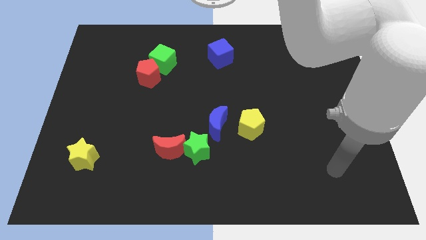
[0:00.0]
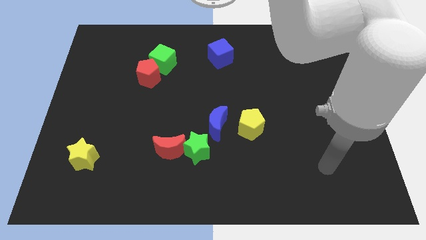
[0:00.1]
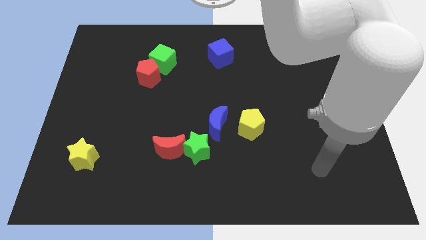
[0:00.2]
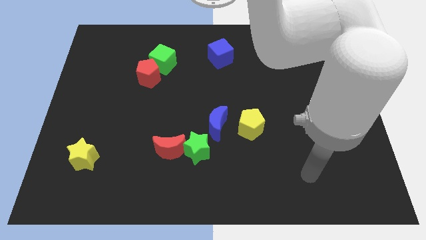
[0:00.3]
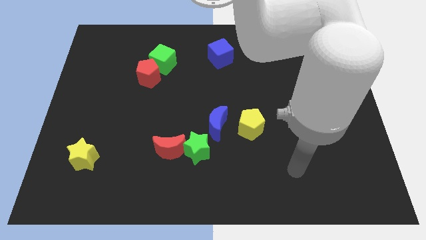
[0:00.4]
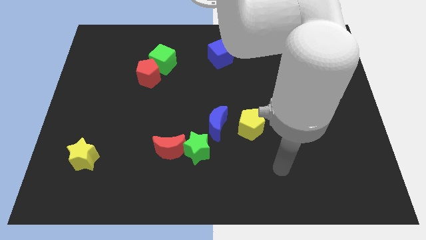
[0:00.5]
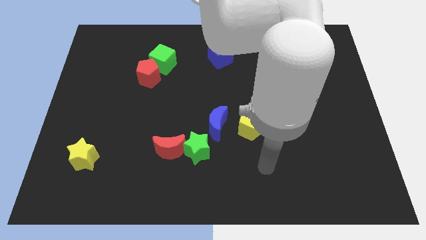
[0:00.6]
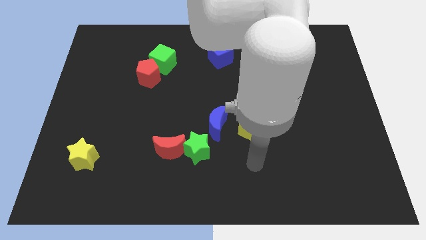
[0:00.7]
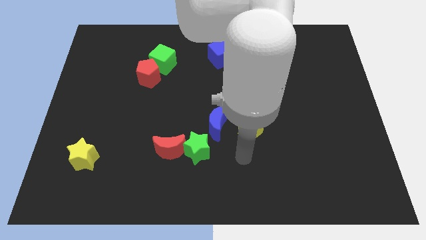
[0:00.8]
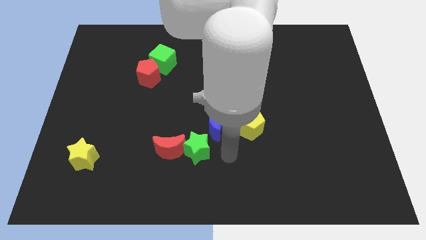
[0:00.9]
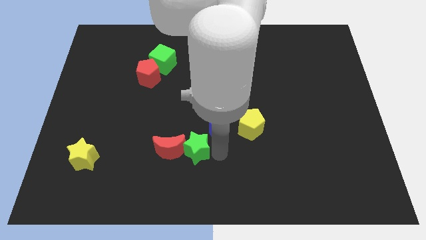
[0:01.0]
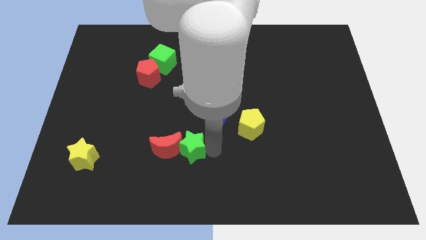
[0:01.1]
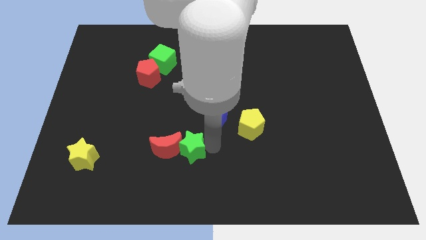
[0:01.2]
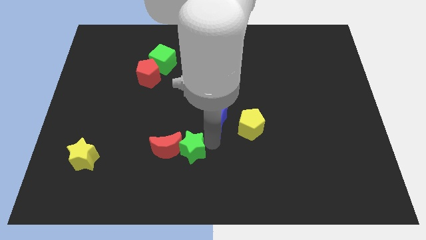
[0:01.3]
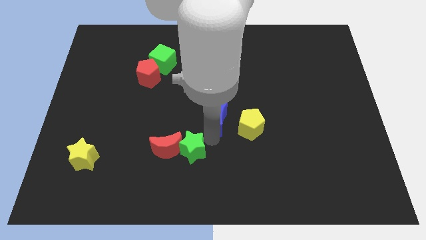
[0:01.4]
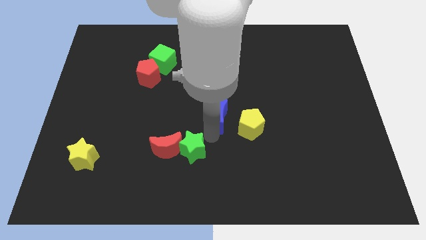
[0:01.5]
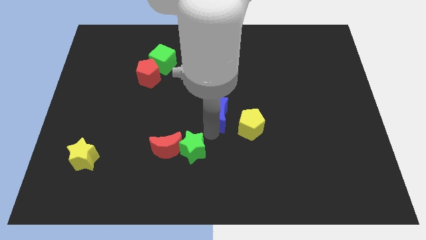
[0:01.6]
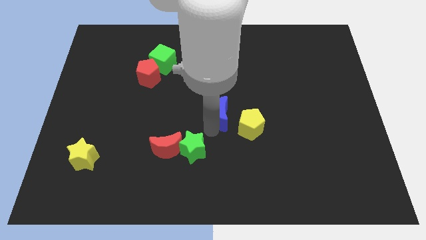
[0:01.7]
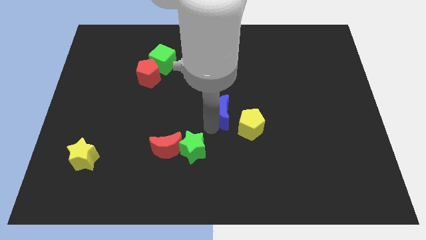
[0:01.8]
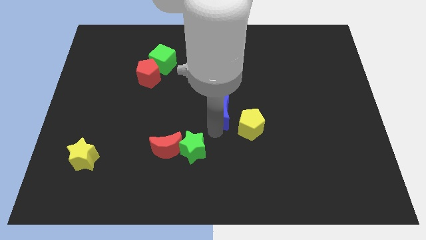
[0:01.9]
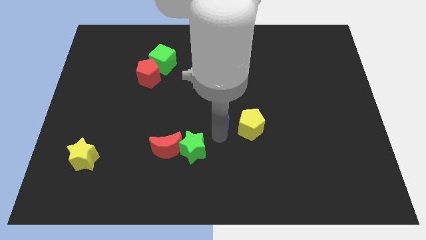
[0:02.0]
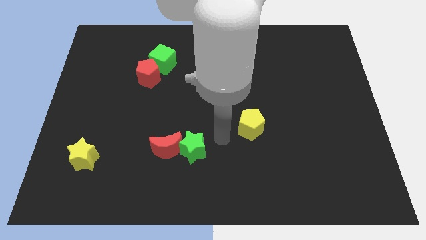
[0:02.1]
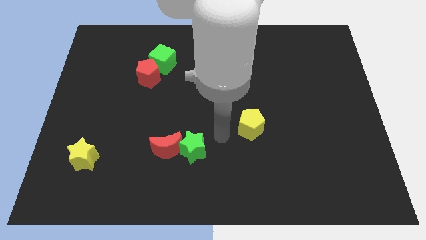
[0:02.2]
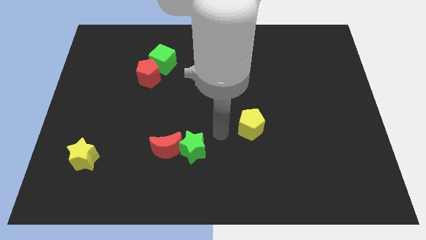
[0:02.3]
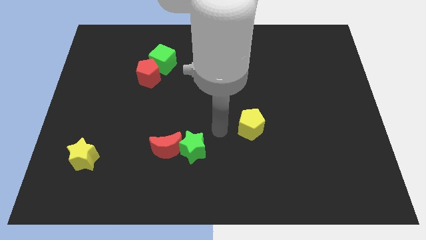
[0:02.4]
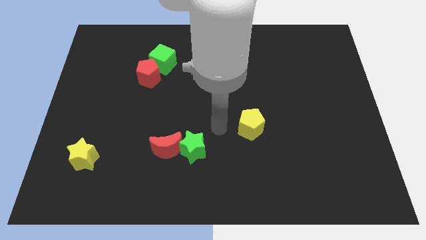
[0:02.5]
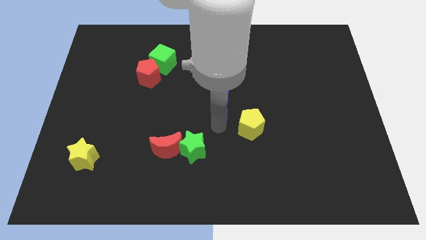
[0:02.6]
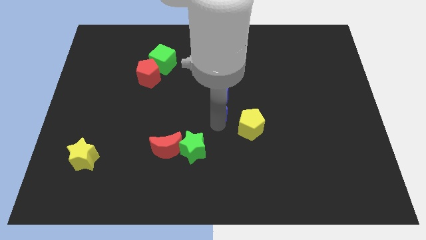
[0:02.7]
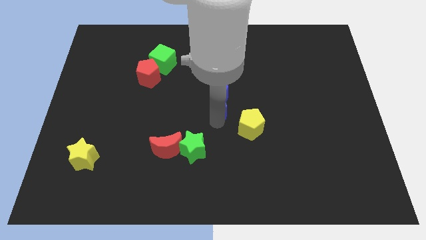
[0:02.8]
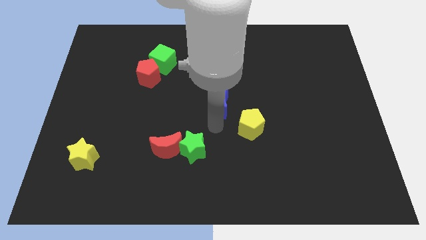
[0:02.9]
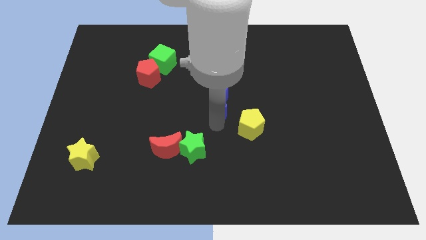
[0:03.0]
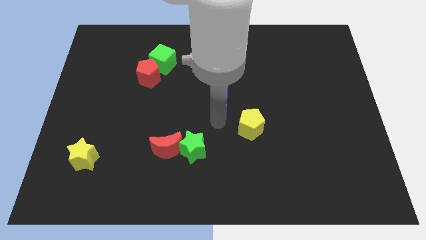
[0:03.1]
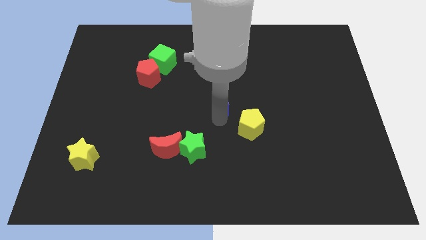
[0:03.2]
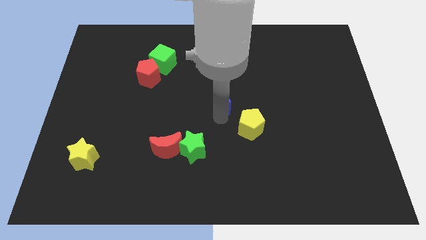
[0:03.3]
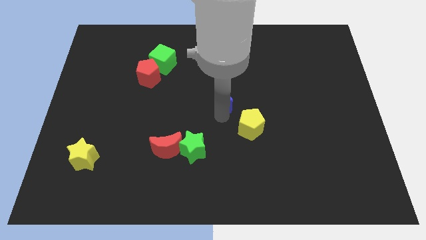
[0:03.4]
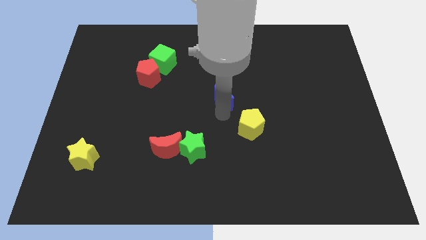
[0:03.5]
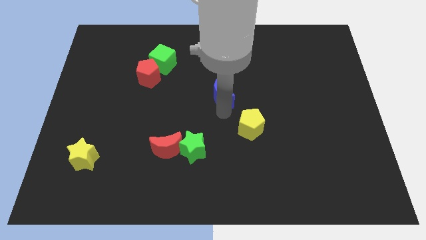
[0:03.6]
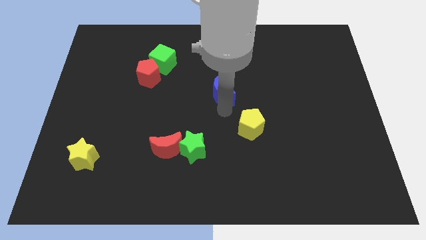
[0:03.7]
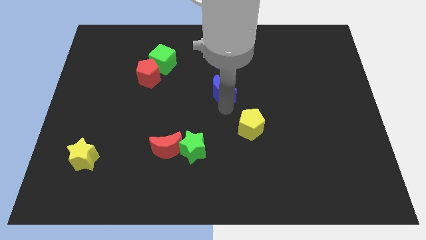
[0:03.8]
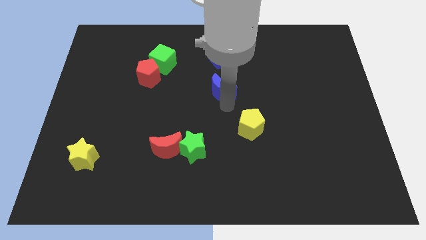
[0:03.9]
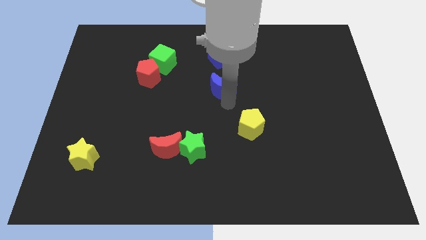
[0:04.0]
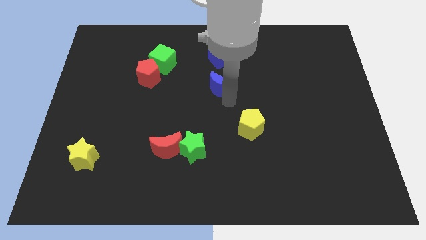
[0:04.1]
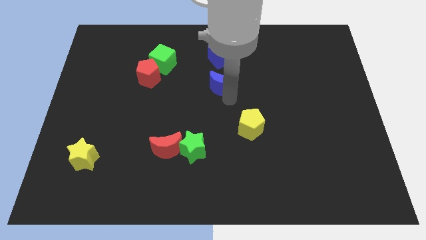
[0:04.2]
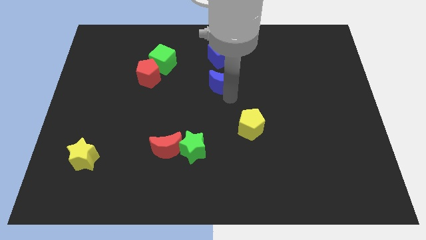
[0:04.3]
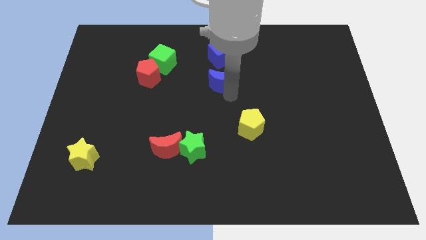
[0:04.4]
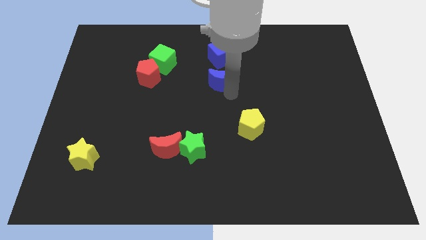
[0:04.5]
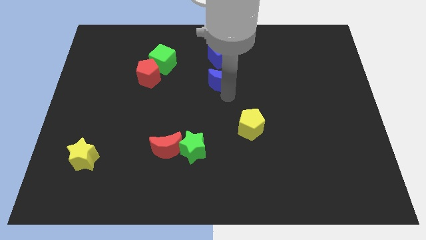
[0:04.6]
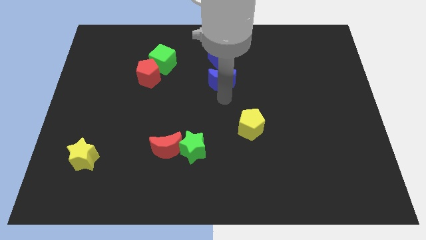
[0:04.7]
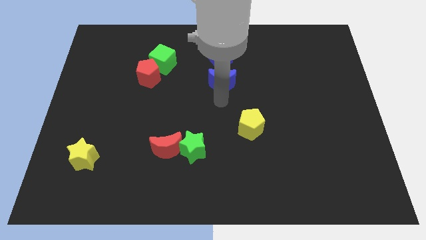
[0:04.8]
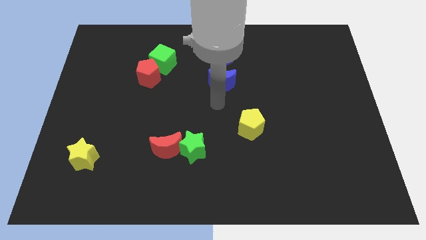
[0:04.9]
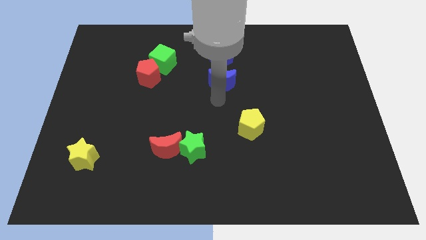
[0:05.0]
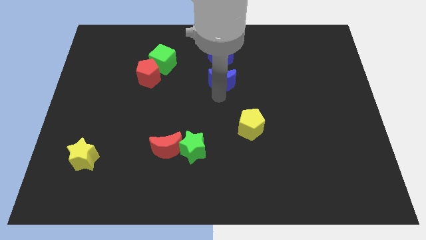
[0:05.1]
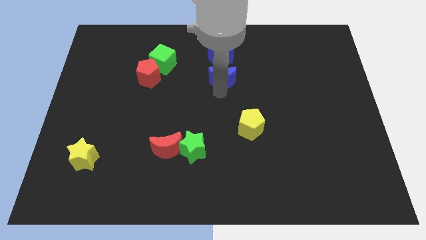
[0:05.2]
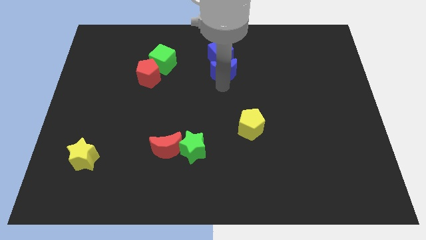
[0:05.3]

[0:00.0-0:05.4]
slide the blue moon next to the blue cube

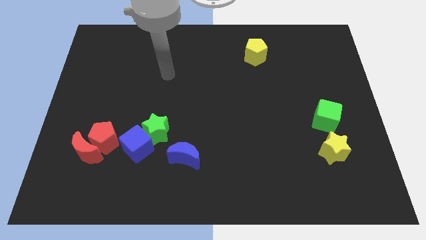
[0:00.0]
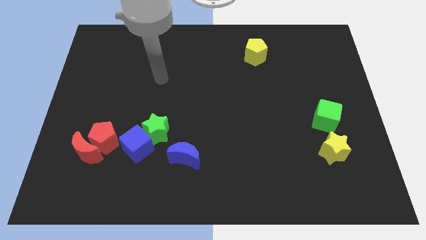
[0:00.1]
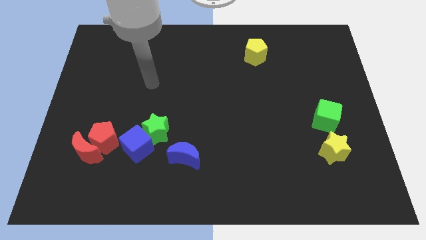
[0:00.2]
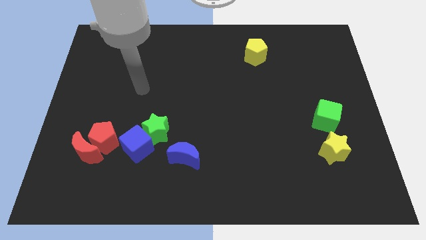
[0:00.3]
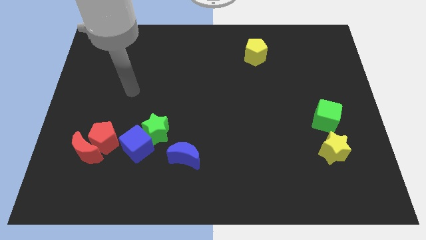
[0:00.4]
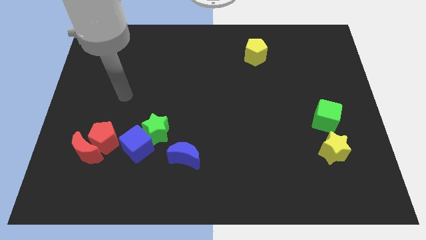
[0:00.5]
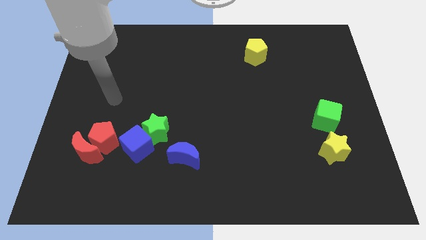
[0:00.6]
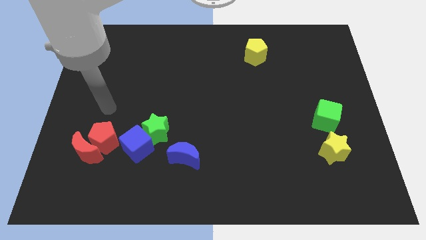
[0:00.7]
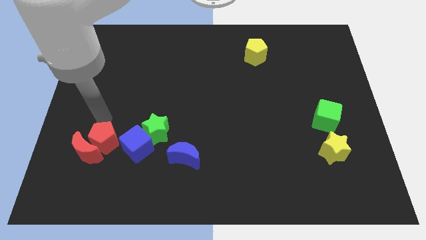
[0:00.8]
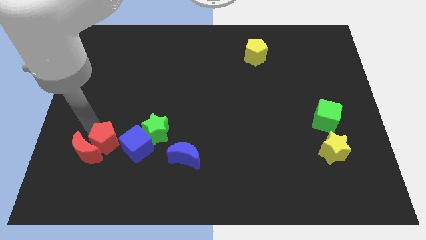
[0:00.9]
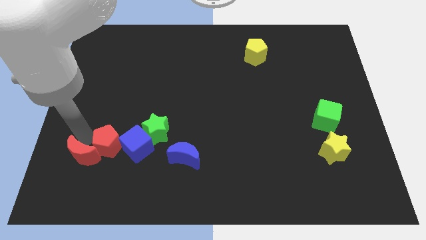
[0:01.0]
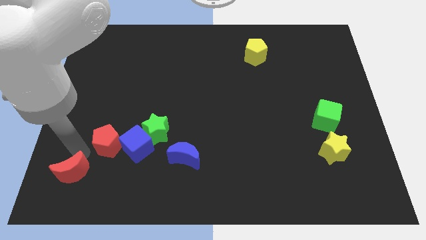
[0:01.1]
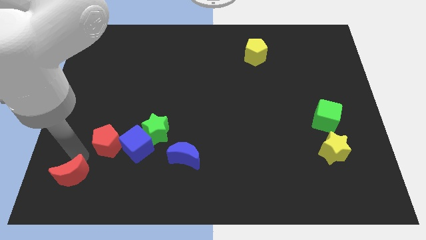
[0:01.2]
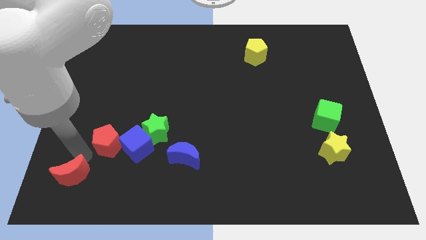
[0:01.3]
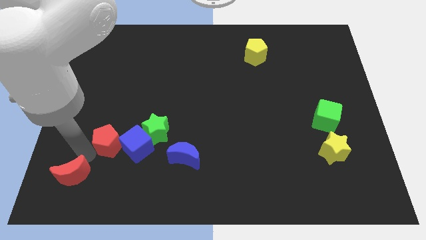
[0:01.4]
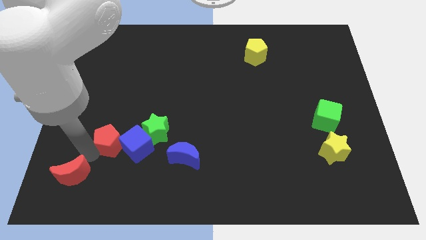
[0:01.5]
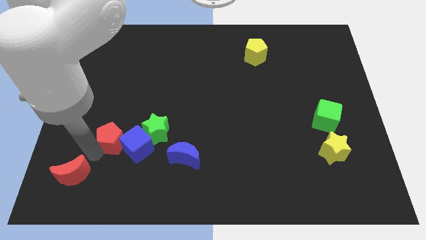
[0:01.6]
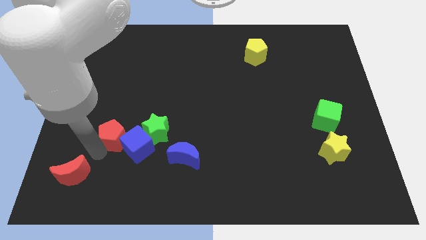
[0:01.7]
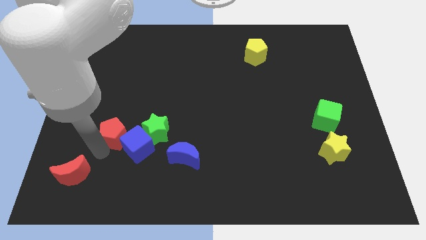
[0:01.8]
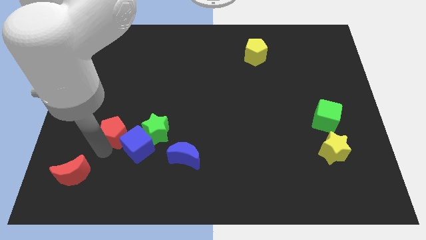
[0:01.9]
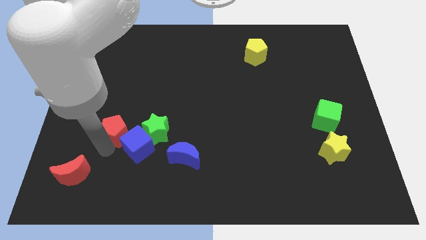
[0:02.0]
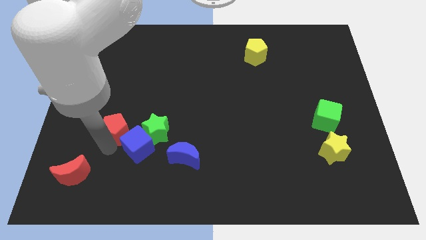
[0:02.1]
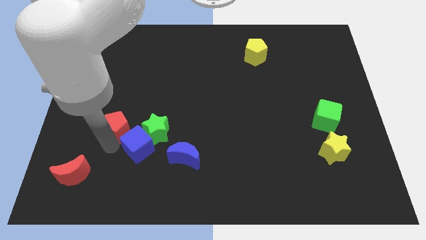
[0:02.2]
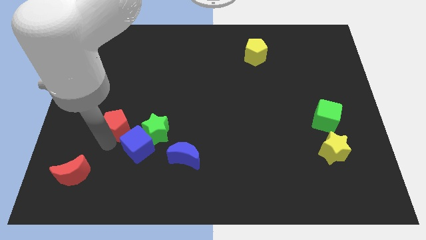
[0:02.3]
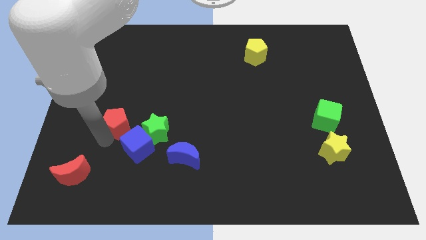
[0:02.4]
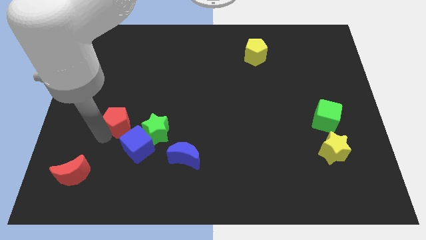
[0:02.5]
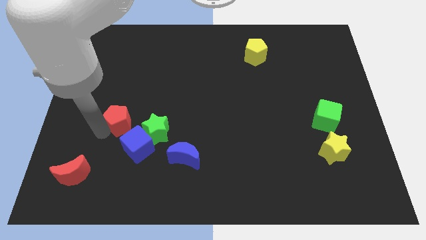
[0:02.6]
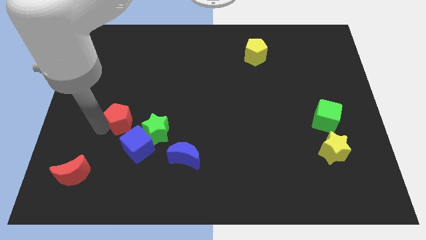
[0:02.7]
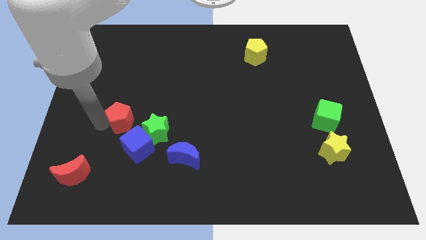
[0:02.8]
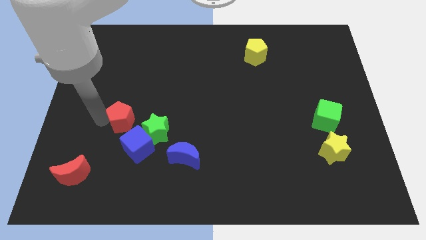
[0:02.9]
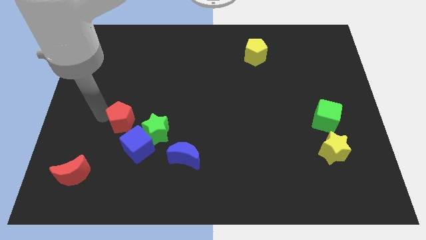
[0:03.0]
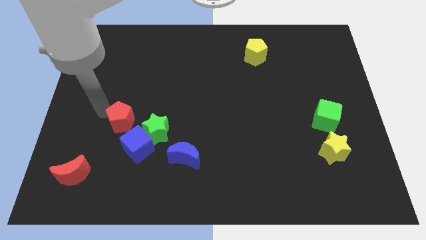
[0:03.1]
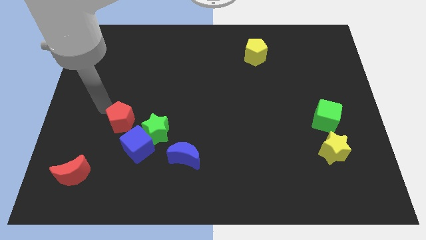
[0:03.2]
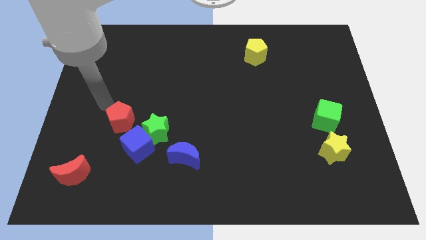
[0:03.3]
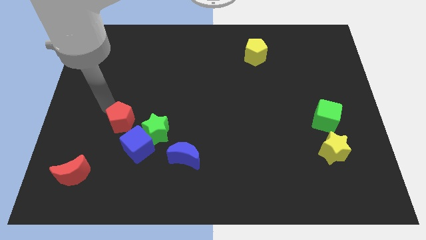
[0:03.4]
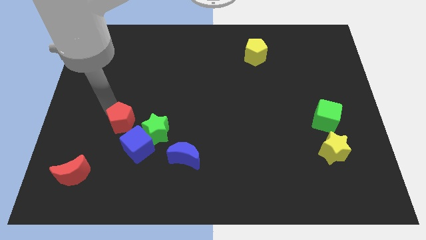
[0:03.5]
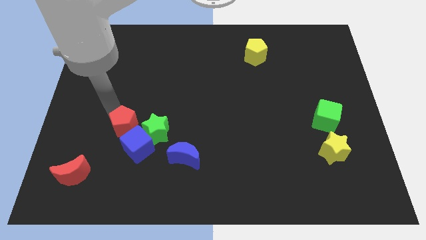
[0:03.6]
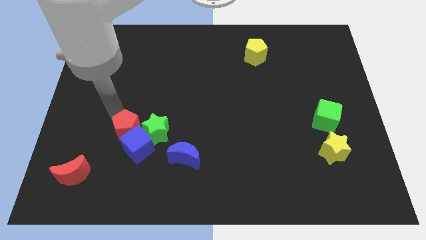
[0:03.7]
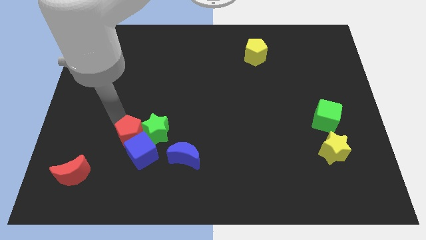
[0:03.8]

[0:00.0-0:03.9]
move the red pentagon towards the green star
